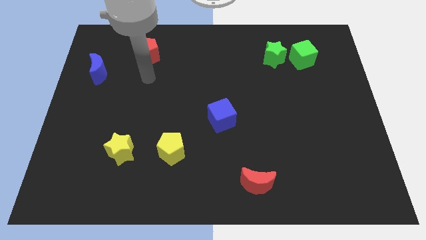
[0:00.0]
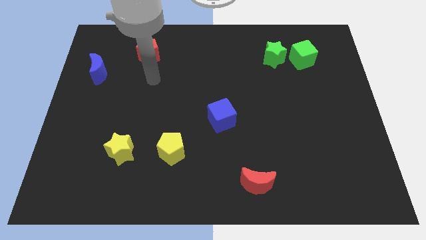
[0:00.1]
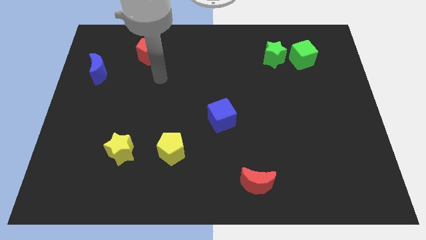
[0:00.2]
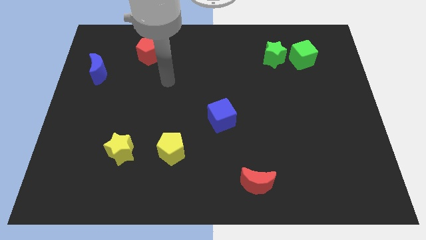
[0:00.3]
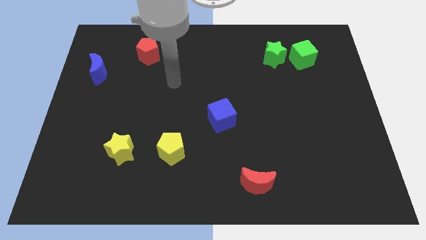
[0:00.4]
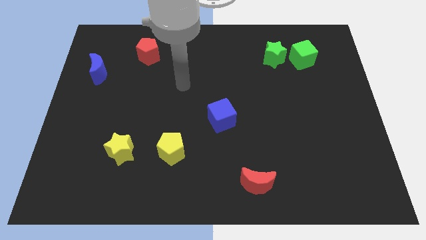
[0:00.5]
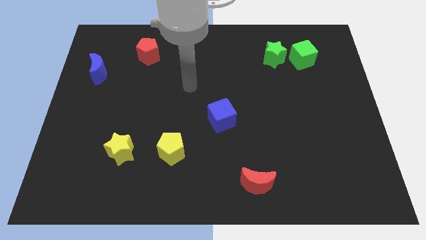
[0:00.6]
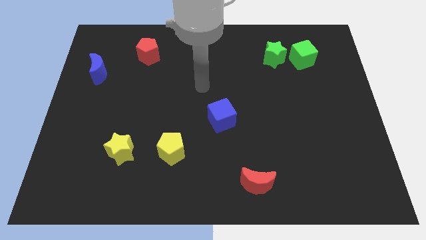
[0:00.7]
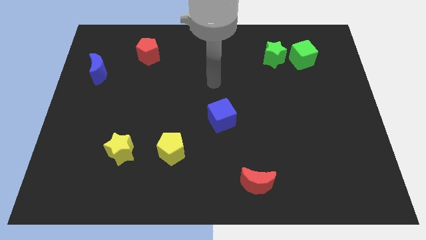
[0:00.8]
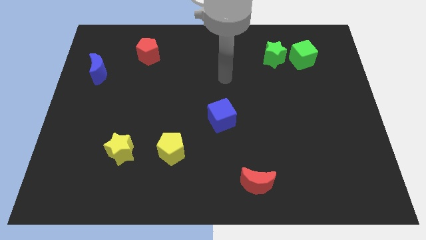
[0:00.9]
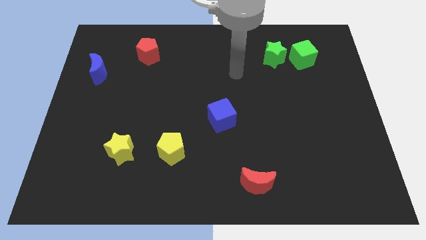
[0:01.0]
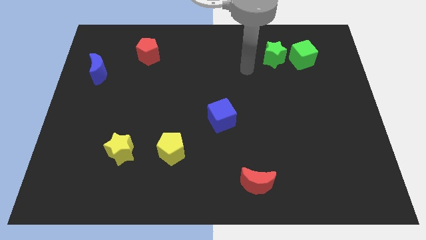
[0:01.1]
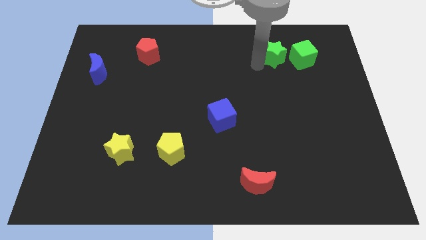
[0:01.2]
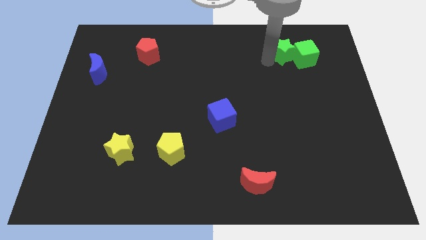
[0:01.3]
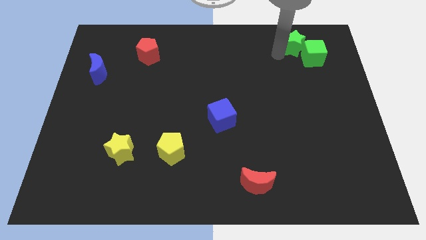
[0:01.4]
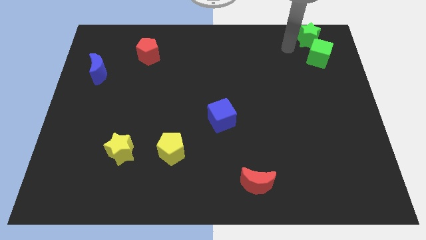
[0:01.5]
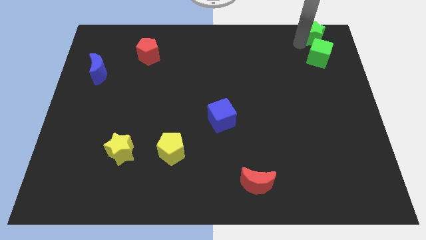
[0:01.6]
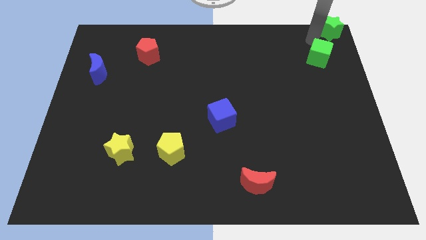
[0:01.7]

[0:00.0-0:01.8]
separate the green cube from the green star

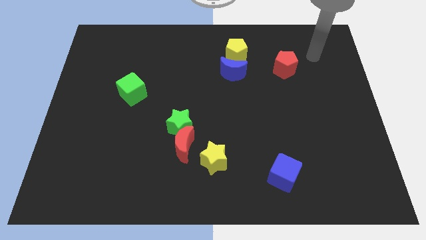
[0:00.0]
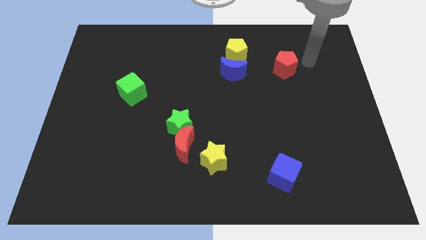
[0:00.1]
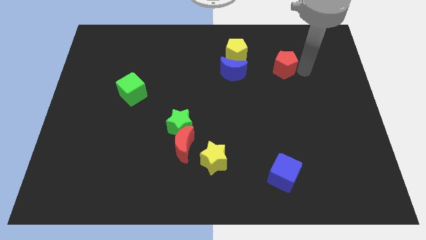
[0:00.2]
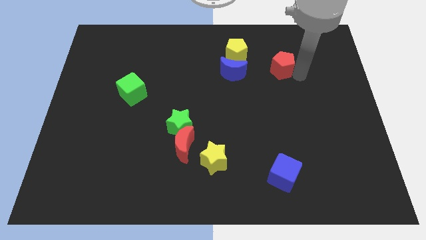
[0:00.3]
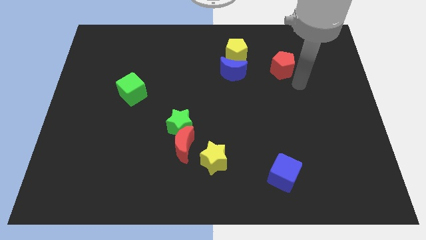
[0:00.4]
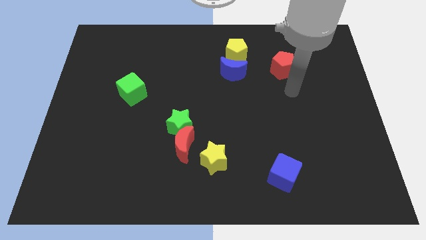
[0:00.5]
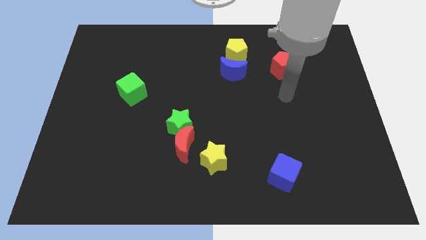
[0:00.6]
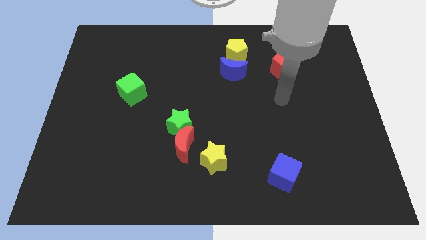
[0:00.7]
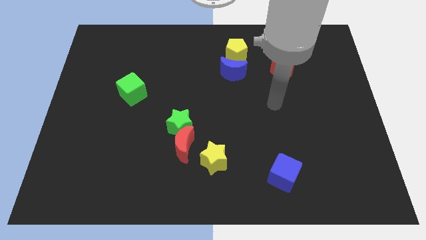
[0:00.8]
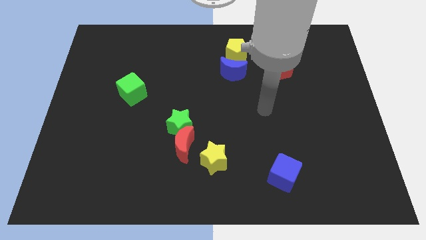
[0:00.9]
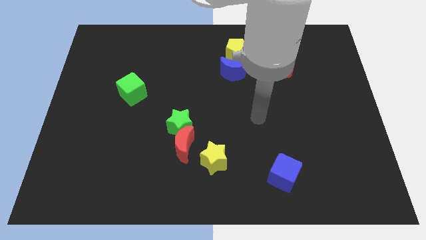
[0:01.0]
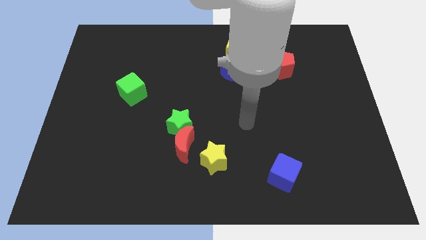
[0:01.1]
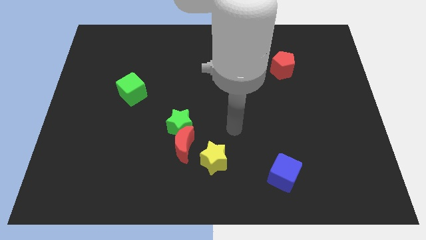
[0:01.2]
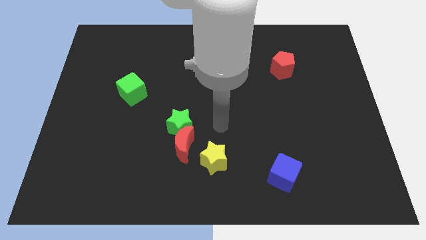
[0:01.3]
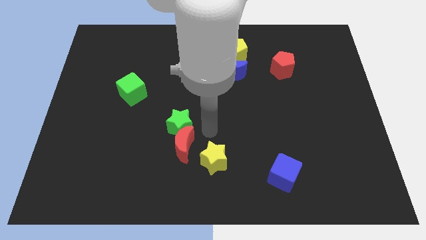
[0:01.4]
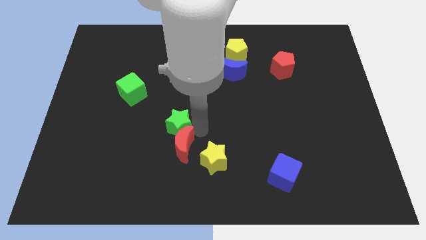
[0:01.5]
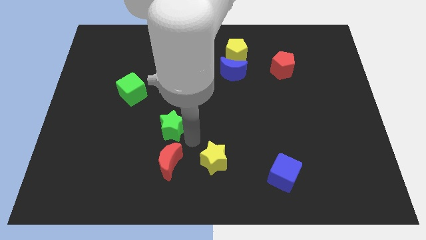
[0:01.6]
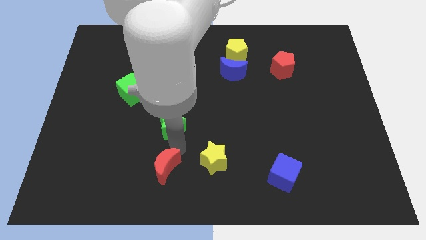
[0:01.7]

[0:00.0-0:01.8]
separate the green star from the red moon

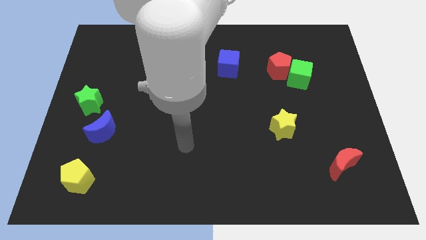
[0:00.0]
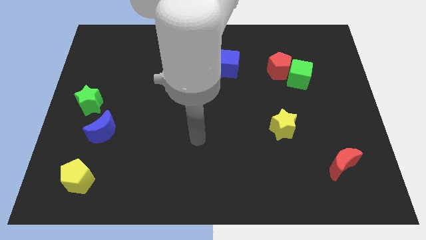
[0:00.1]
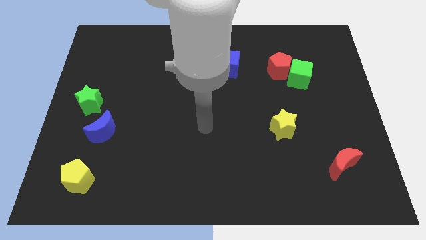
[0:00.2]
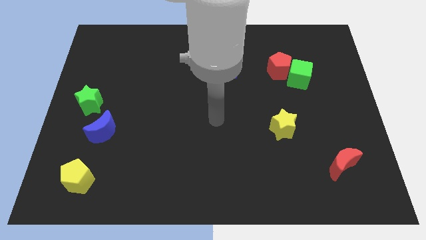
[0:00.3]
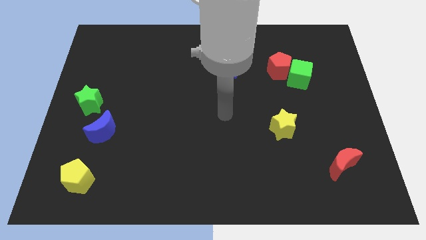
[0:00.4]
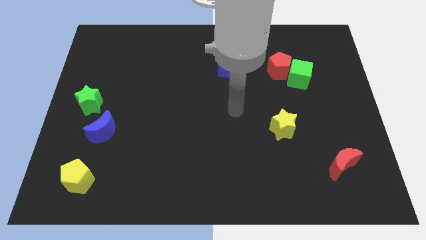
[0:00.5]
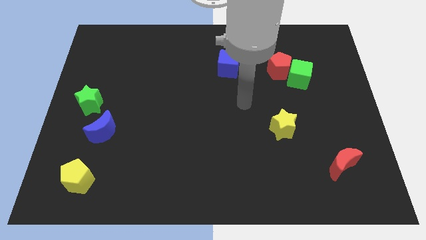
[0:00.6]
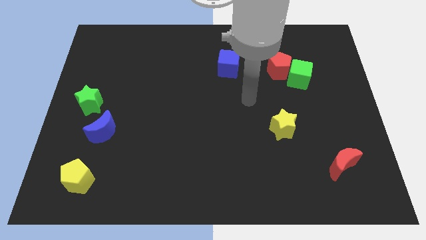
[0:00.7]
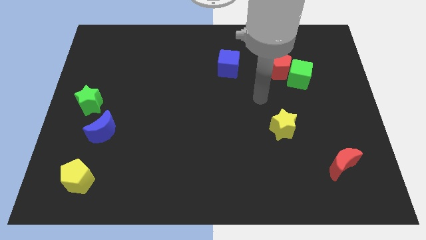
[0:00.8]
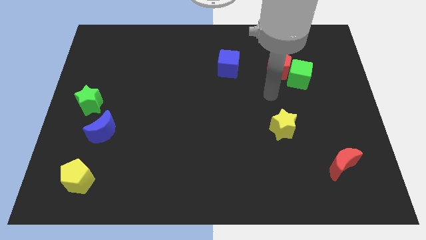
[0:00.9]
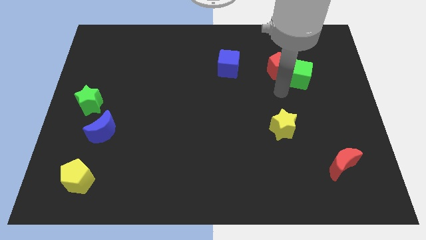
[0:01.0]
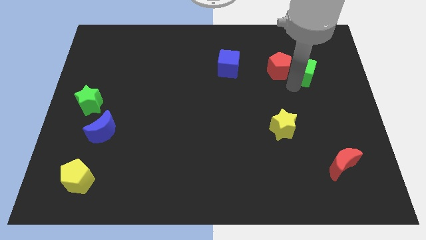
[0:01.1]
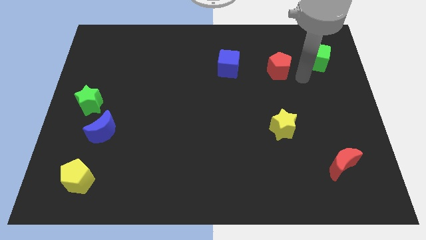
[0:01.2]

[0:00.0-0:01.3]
move the red pentagon away from the green cube

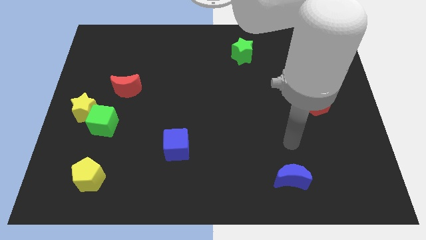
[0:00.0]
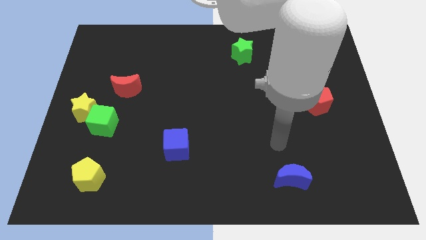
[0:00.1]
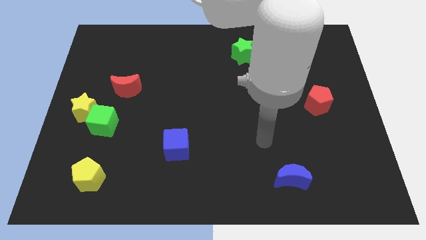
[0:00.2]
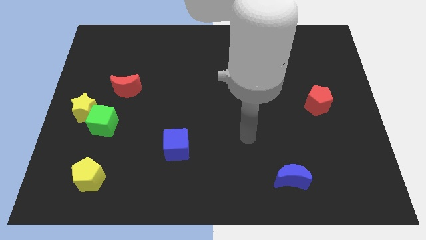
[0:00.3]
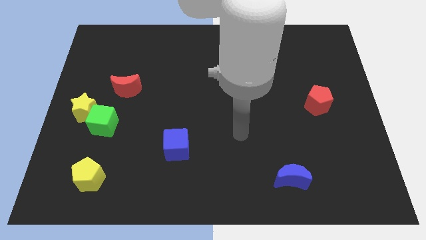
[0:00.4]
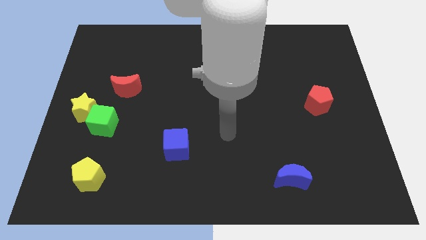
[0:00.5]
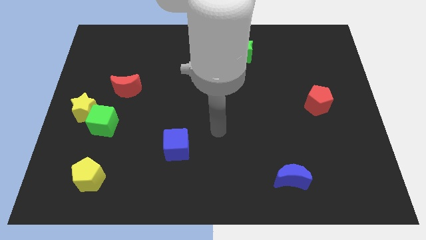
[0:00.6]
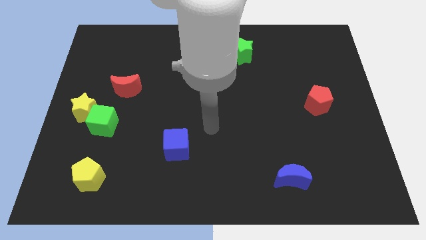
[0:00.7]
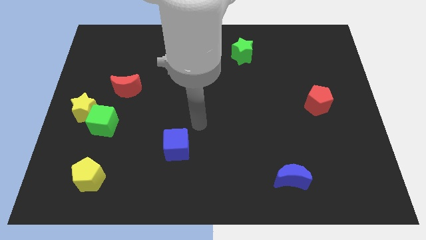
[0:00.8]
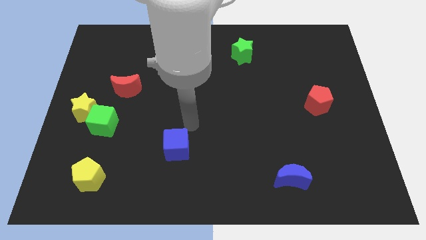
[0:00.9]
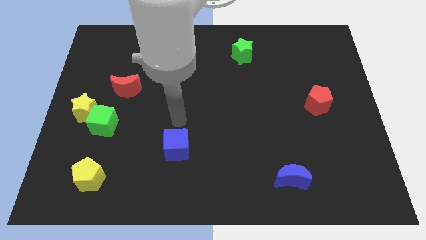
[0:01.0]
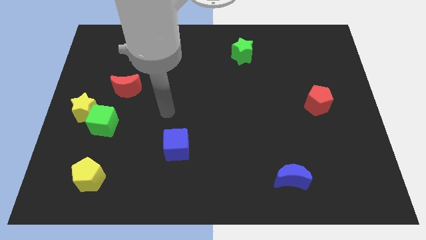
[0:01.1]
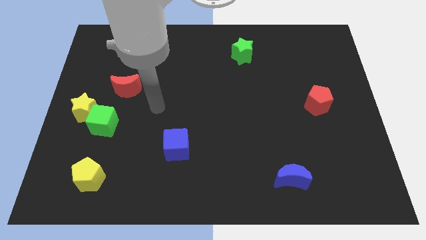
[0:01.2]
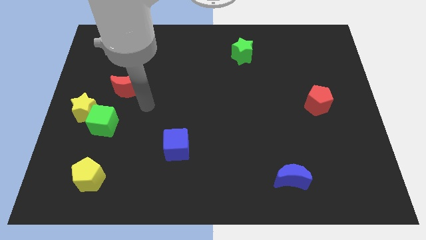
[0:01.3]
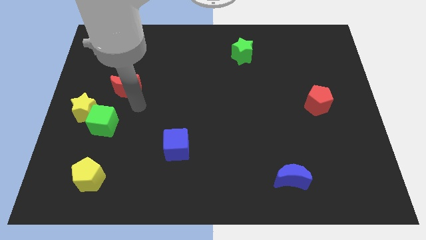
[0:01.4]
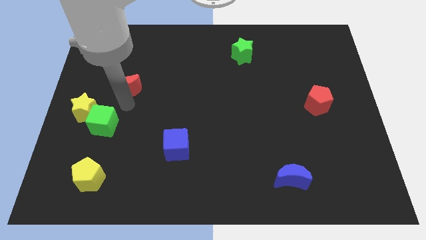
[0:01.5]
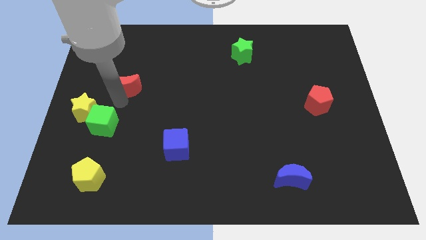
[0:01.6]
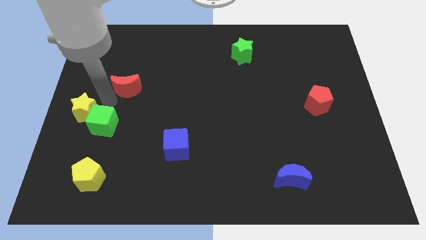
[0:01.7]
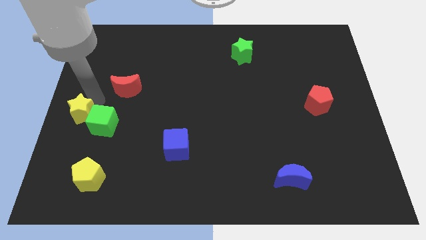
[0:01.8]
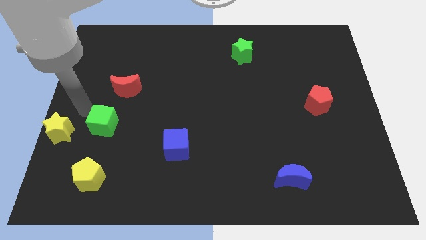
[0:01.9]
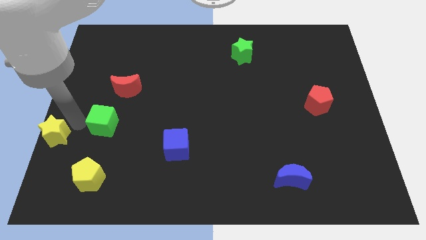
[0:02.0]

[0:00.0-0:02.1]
pull the green cube apart from the yellow star

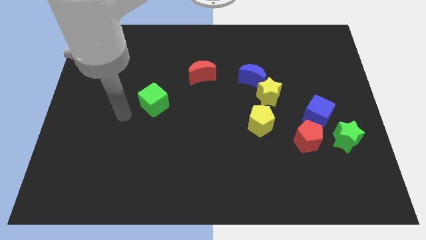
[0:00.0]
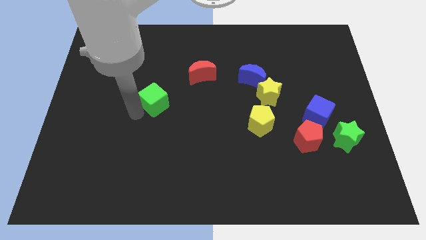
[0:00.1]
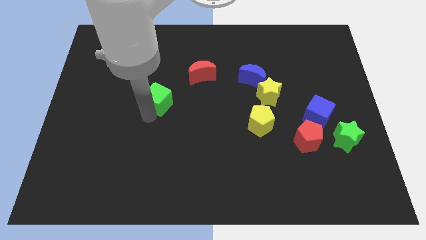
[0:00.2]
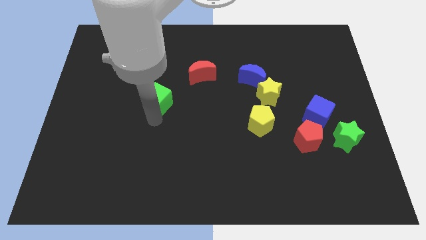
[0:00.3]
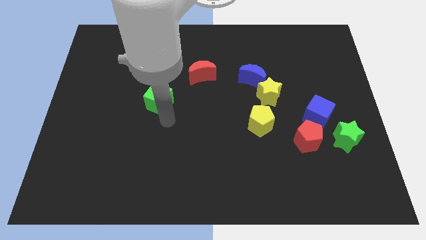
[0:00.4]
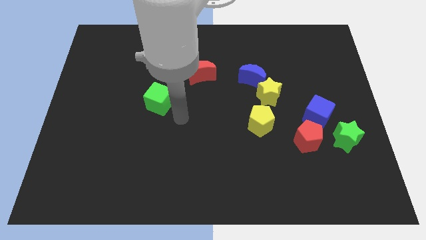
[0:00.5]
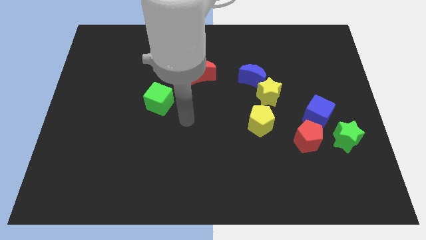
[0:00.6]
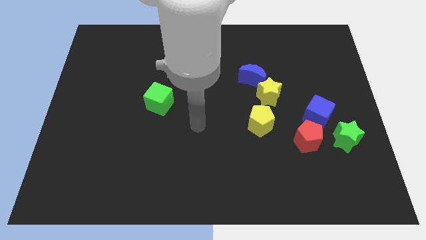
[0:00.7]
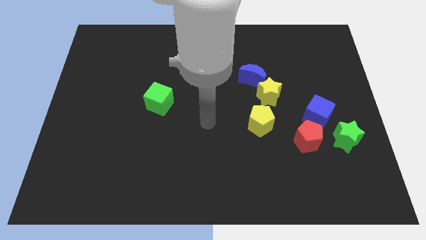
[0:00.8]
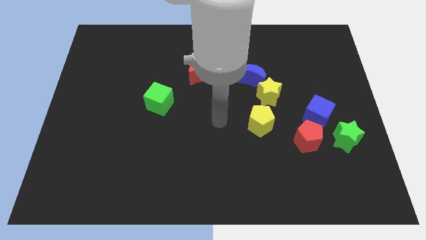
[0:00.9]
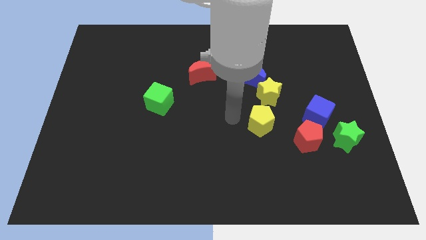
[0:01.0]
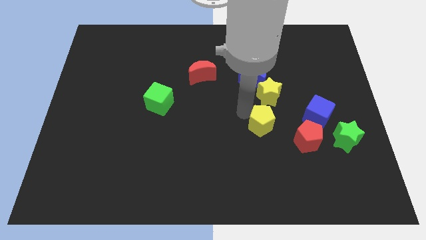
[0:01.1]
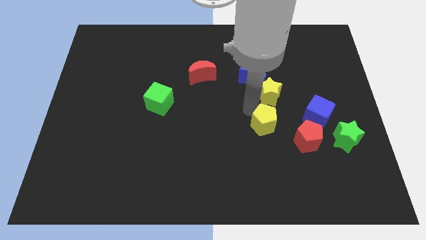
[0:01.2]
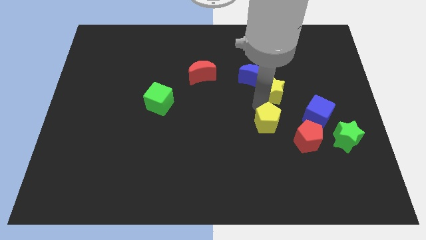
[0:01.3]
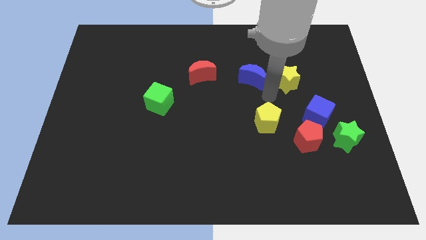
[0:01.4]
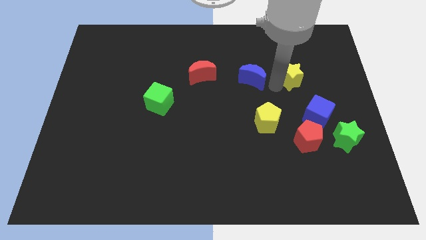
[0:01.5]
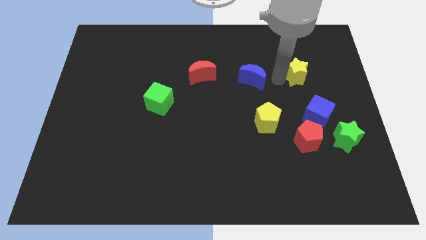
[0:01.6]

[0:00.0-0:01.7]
separate the blue moon from the yellow star

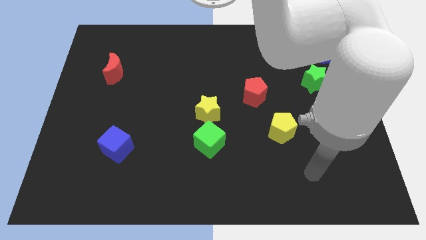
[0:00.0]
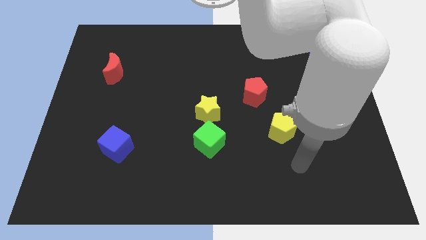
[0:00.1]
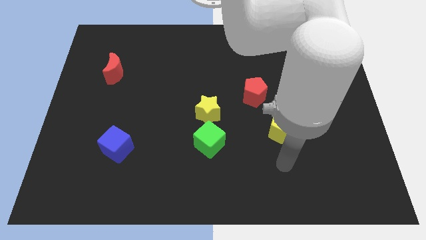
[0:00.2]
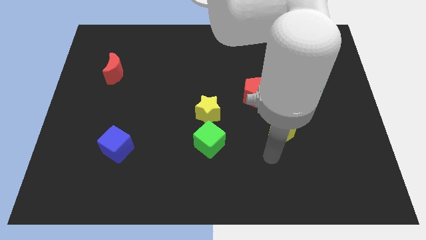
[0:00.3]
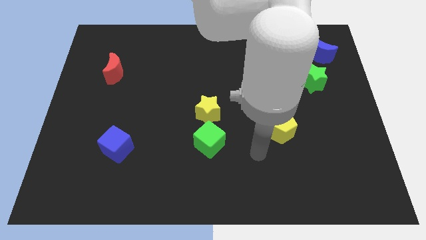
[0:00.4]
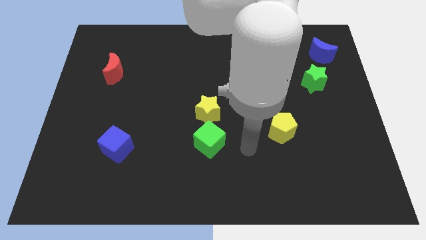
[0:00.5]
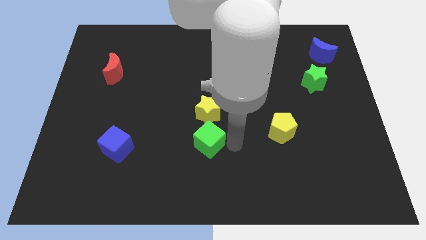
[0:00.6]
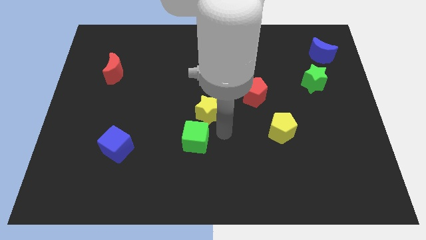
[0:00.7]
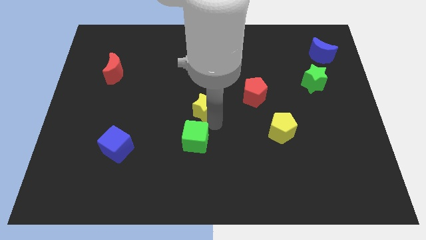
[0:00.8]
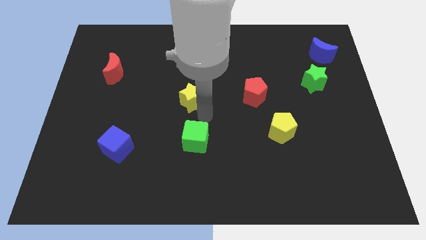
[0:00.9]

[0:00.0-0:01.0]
separate the green cube from the yellow star
